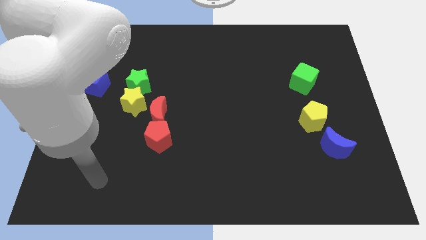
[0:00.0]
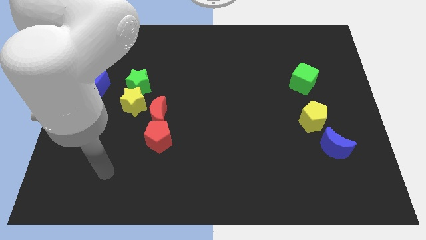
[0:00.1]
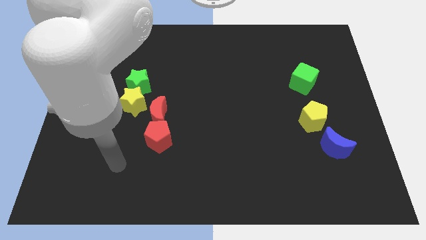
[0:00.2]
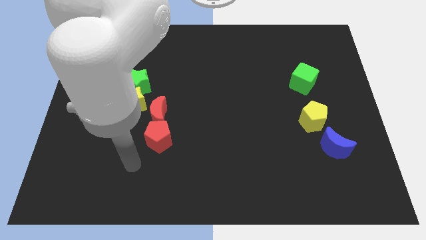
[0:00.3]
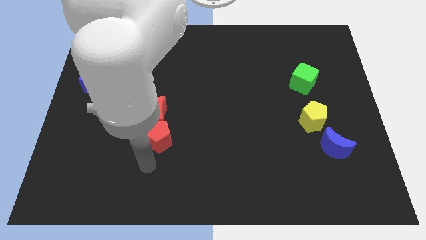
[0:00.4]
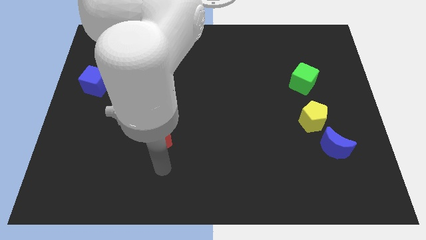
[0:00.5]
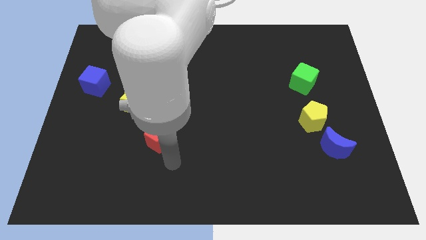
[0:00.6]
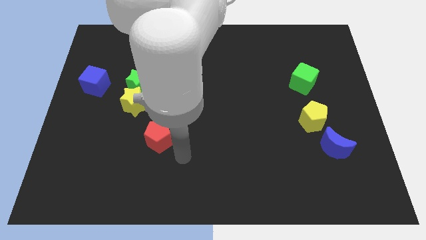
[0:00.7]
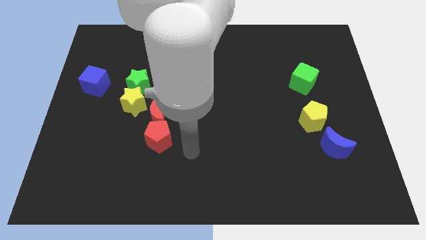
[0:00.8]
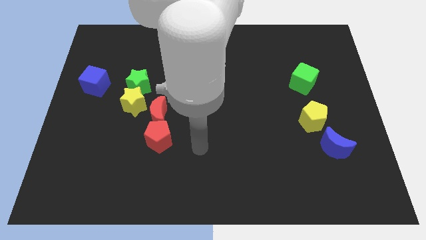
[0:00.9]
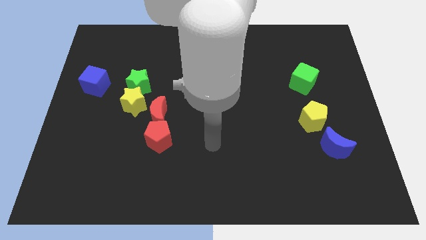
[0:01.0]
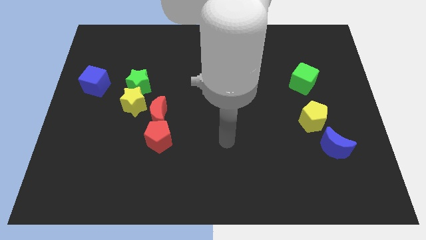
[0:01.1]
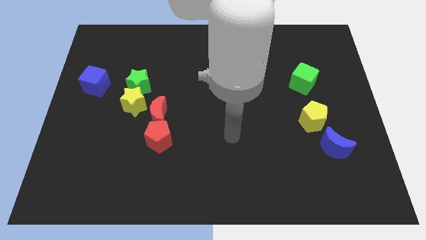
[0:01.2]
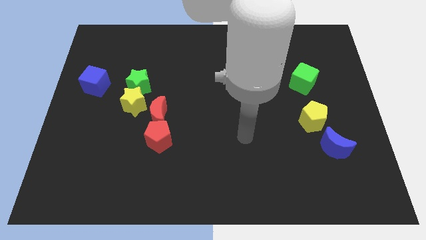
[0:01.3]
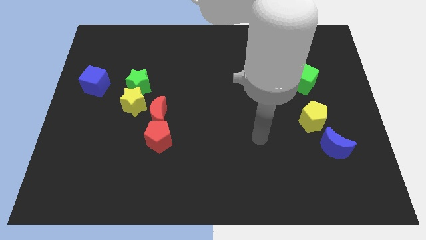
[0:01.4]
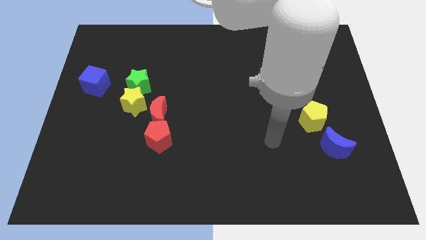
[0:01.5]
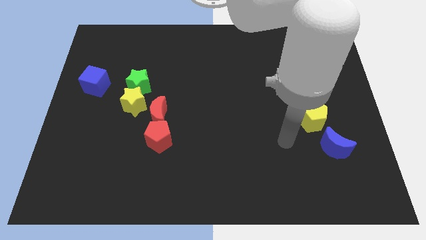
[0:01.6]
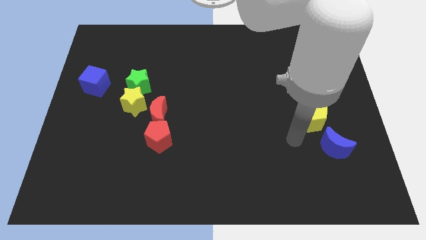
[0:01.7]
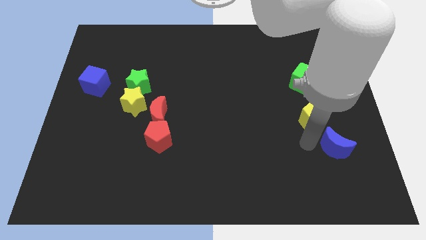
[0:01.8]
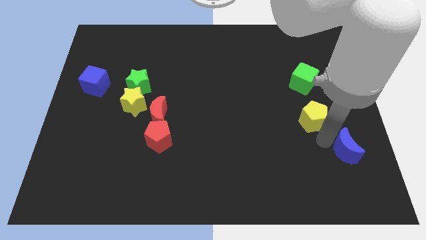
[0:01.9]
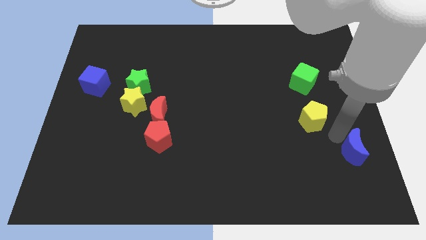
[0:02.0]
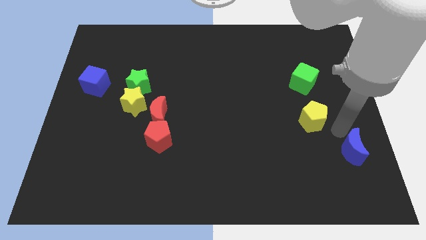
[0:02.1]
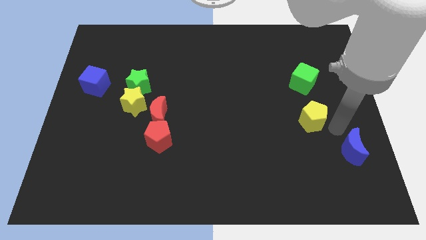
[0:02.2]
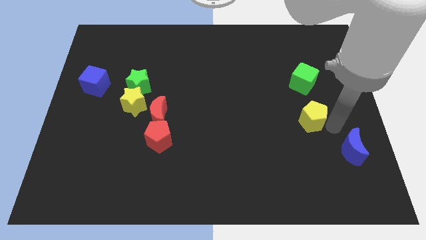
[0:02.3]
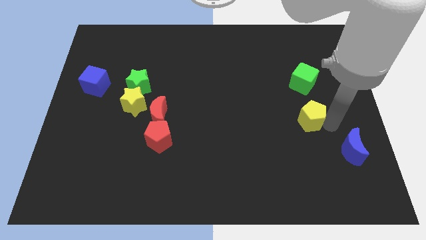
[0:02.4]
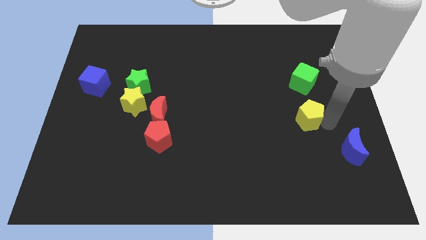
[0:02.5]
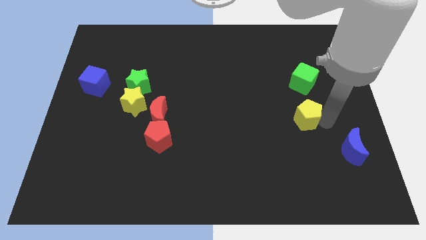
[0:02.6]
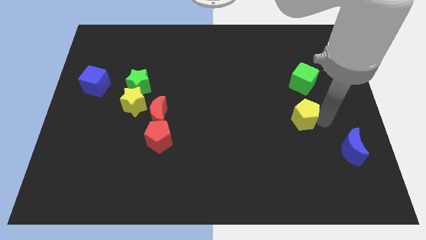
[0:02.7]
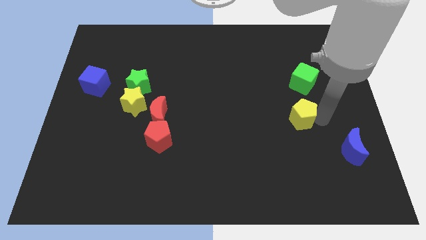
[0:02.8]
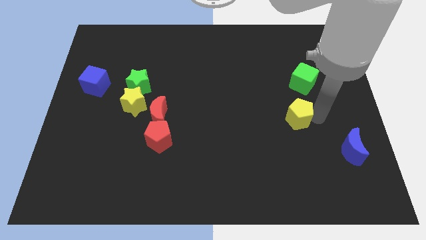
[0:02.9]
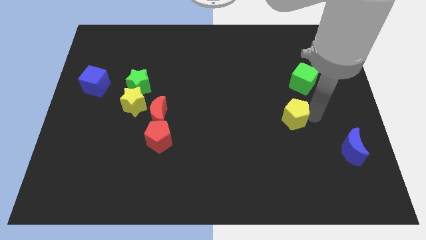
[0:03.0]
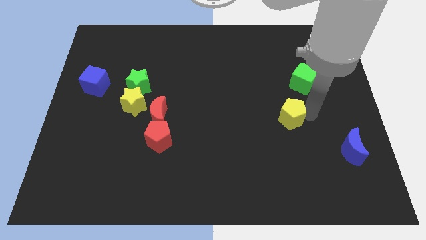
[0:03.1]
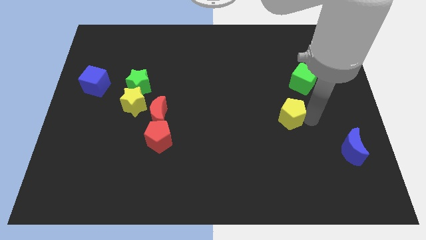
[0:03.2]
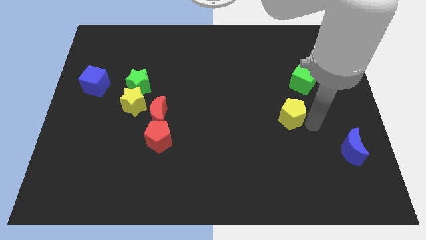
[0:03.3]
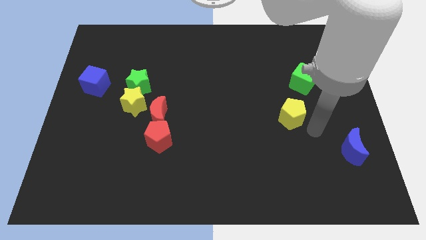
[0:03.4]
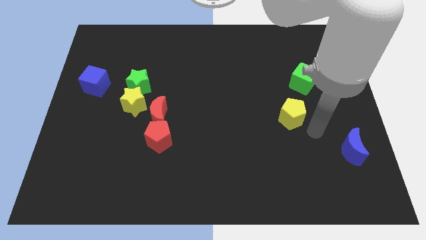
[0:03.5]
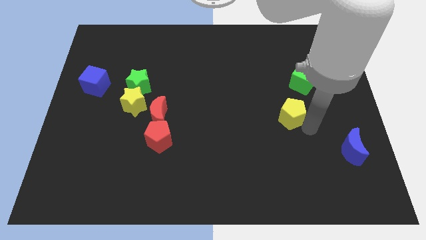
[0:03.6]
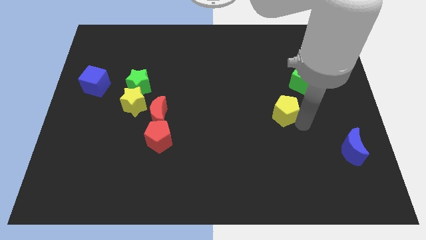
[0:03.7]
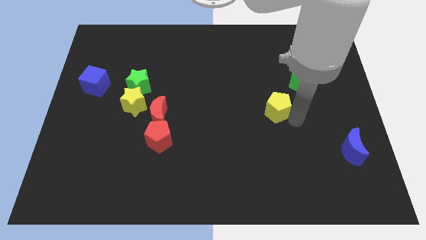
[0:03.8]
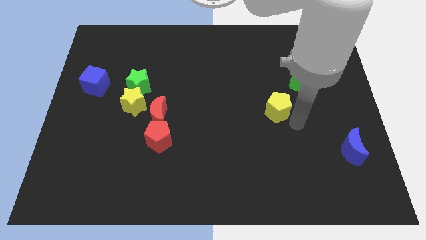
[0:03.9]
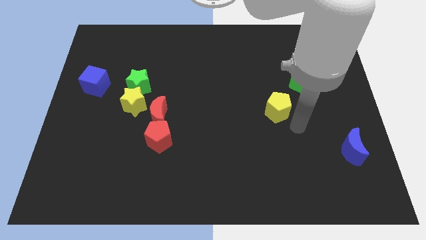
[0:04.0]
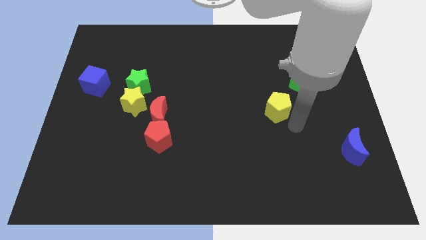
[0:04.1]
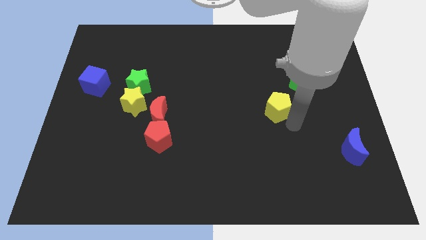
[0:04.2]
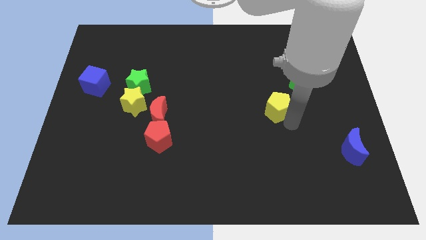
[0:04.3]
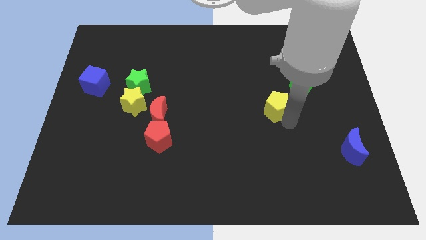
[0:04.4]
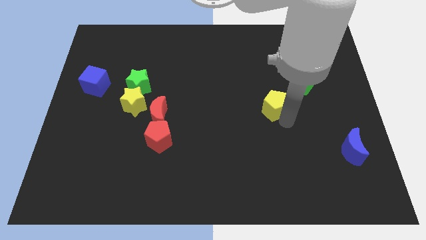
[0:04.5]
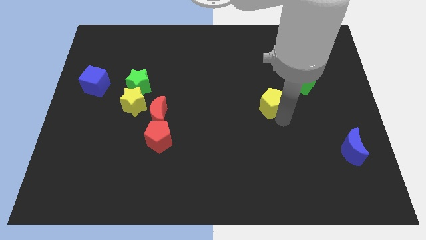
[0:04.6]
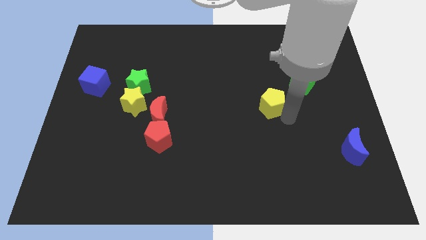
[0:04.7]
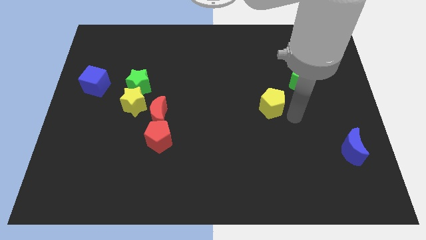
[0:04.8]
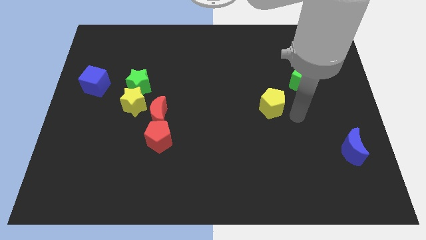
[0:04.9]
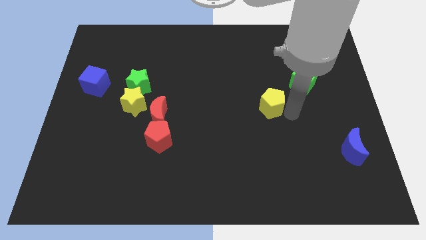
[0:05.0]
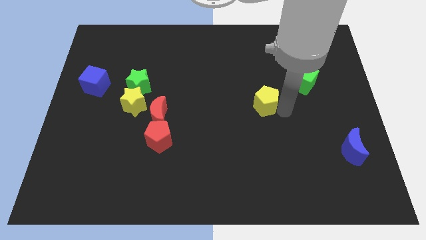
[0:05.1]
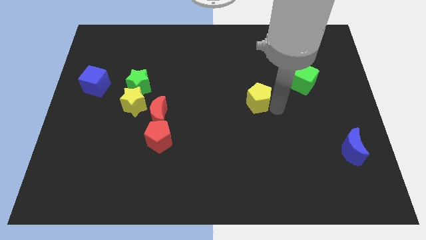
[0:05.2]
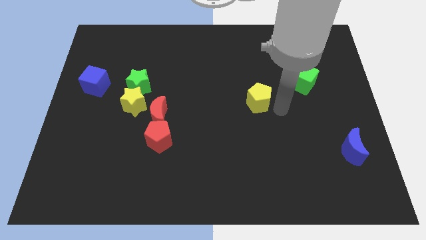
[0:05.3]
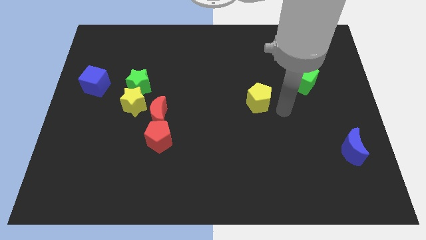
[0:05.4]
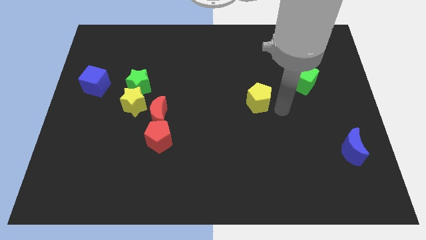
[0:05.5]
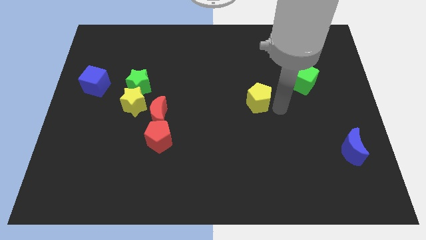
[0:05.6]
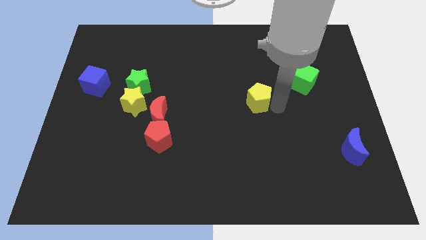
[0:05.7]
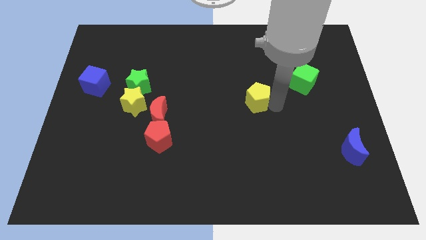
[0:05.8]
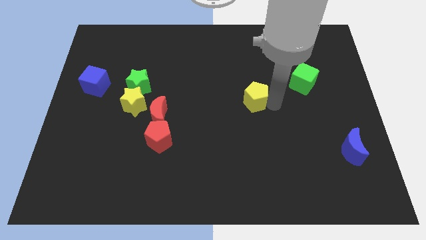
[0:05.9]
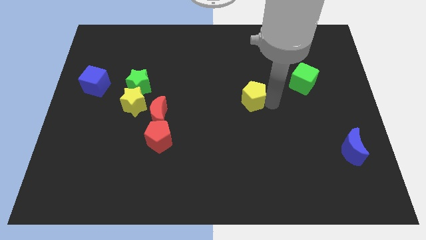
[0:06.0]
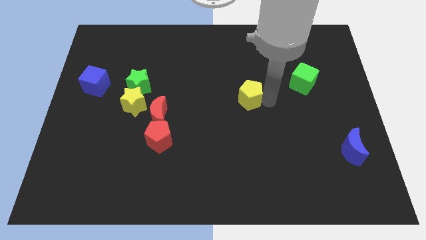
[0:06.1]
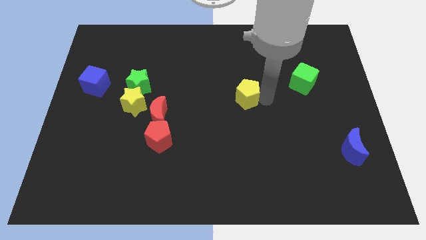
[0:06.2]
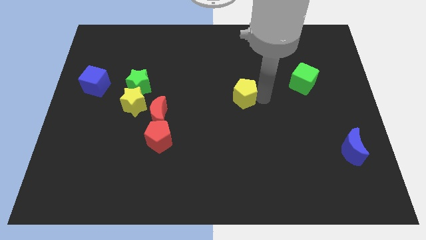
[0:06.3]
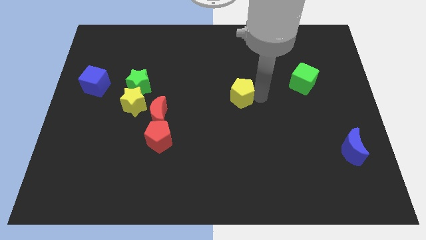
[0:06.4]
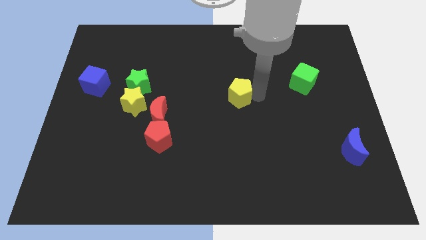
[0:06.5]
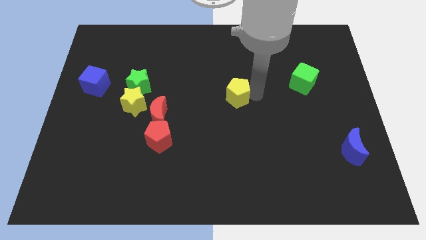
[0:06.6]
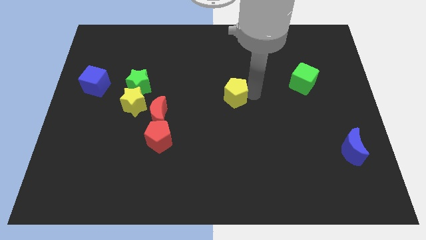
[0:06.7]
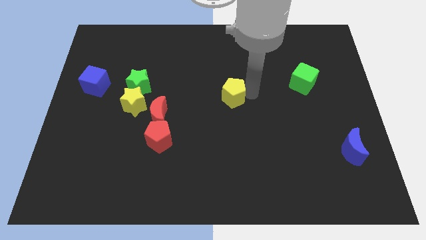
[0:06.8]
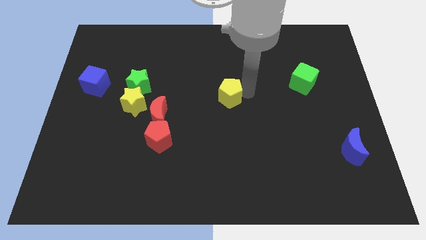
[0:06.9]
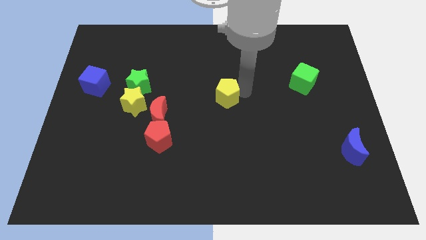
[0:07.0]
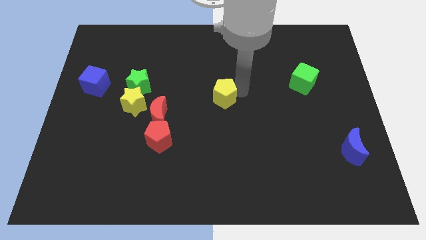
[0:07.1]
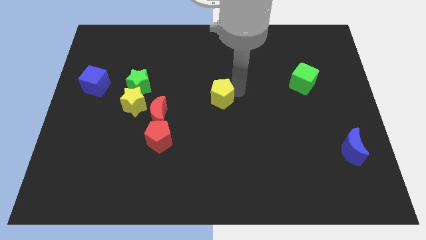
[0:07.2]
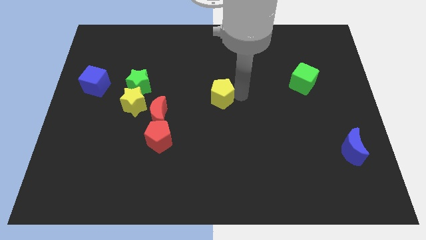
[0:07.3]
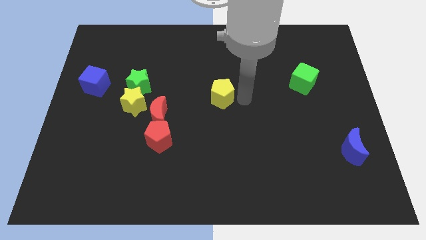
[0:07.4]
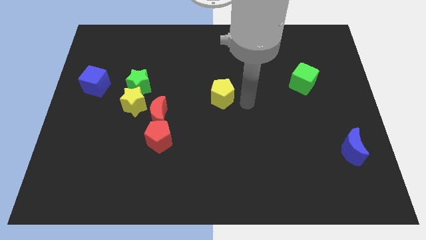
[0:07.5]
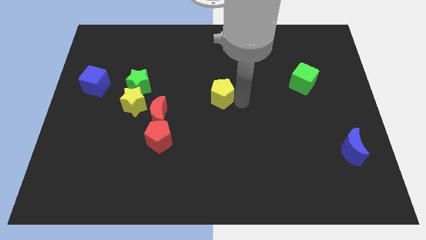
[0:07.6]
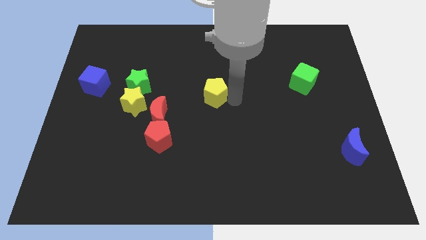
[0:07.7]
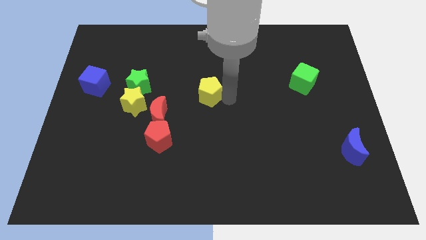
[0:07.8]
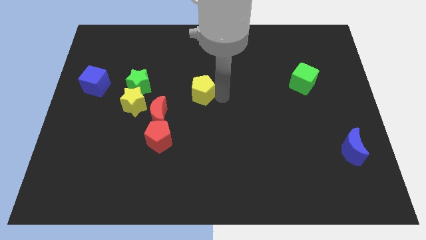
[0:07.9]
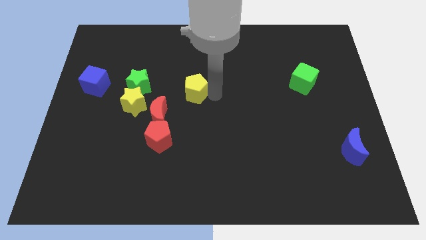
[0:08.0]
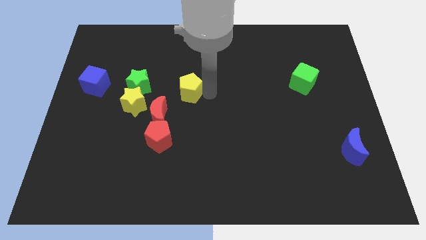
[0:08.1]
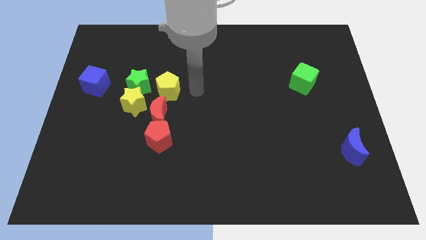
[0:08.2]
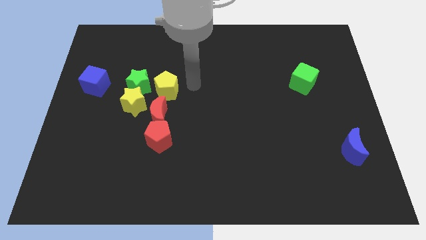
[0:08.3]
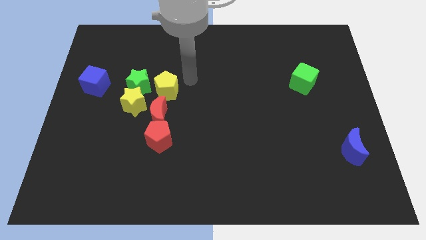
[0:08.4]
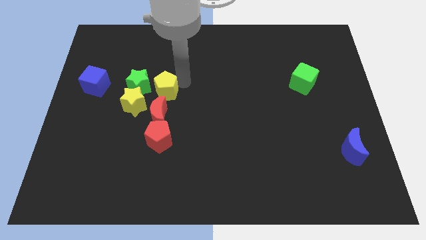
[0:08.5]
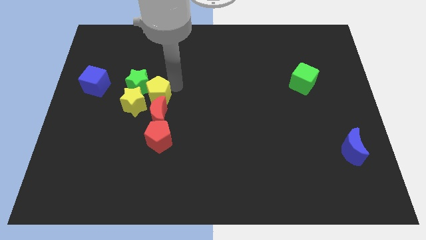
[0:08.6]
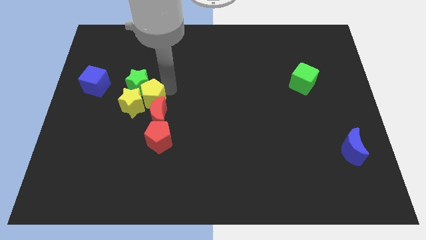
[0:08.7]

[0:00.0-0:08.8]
push the yellow pentagon close to the yellow star
